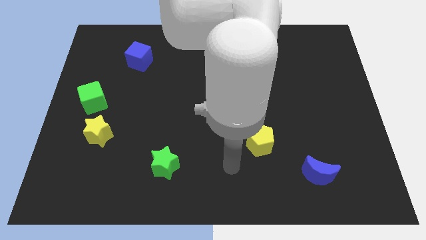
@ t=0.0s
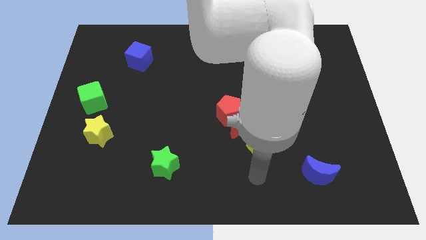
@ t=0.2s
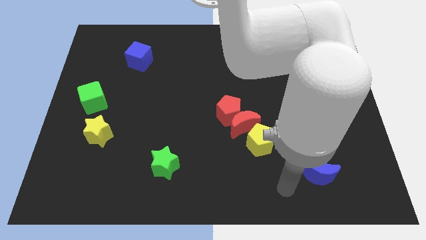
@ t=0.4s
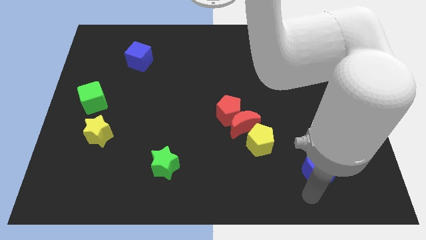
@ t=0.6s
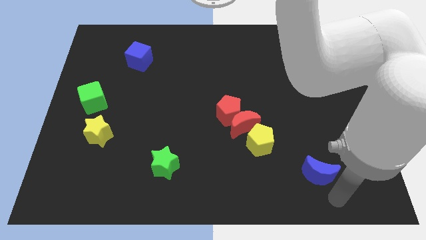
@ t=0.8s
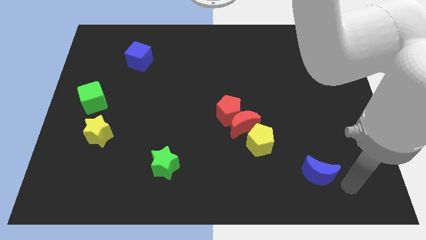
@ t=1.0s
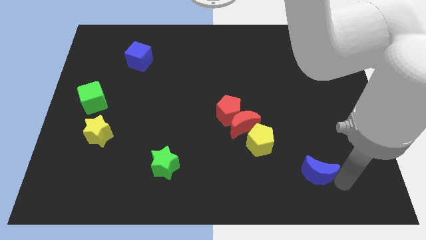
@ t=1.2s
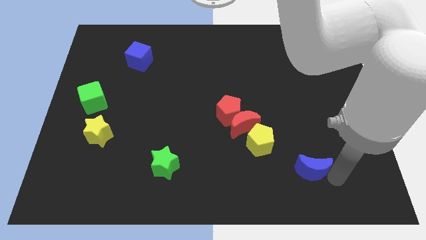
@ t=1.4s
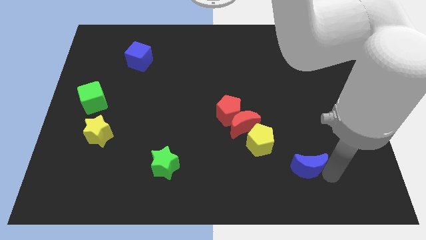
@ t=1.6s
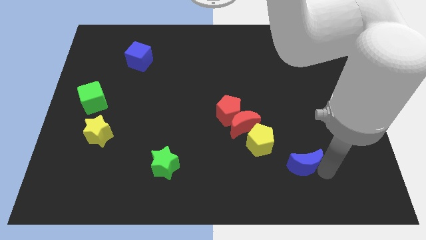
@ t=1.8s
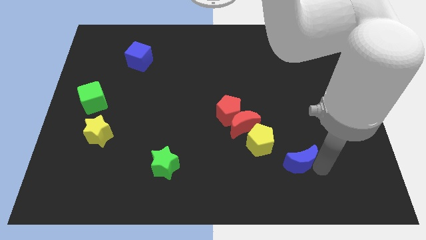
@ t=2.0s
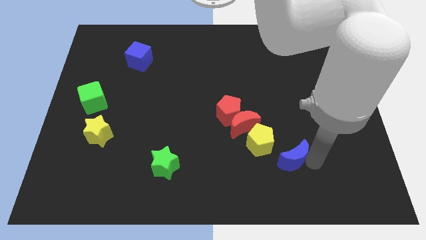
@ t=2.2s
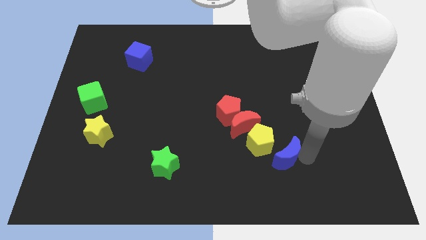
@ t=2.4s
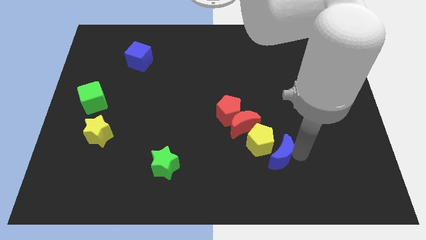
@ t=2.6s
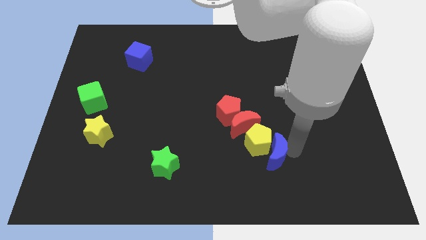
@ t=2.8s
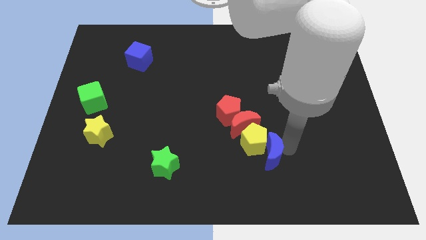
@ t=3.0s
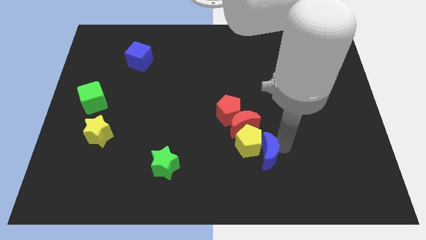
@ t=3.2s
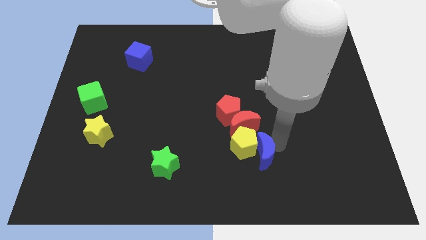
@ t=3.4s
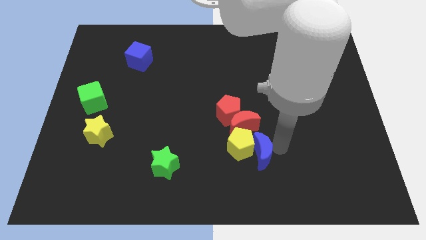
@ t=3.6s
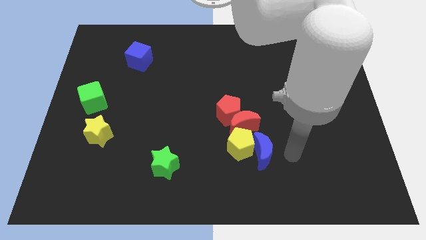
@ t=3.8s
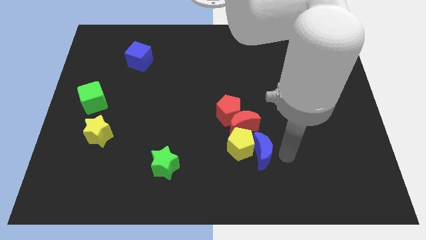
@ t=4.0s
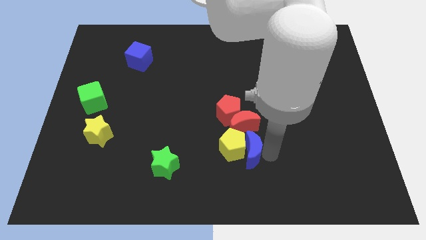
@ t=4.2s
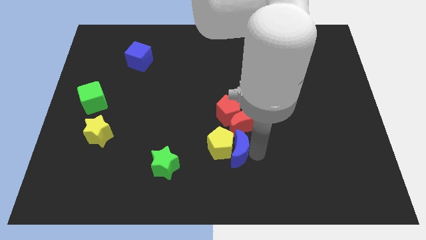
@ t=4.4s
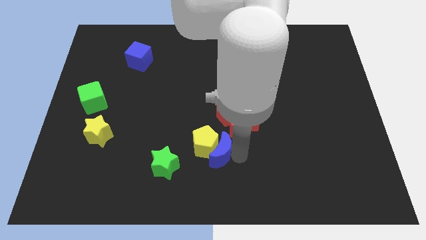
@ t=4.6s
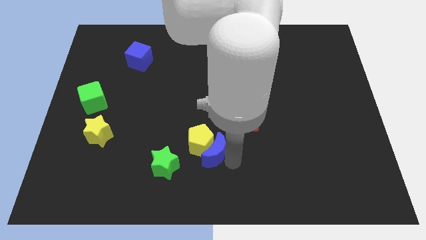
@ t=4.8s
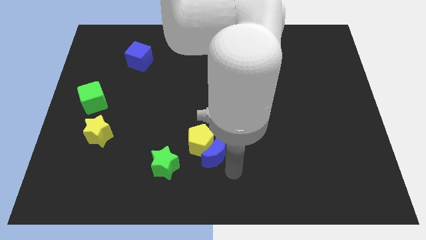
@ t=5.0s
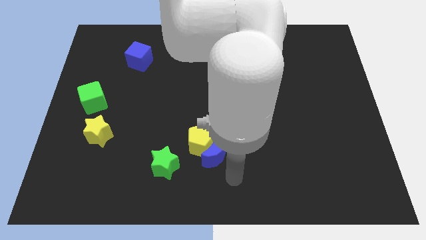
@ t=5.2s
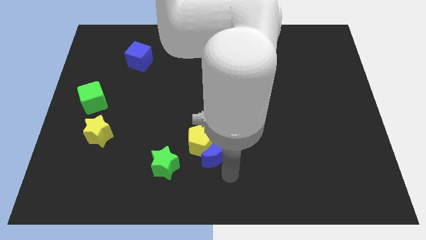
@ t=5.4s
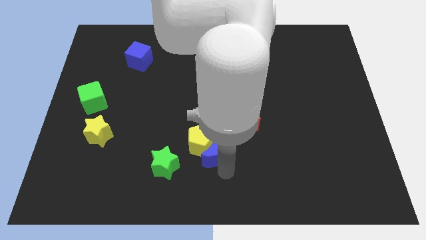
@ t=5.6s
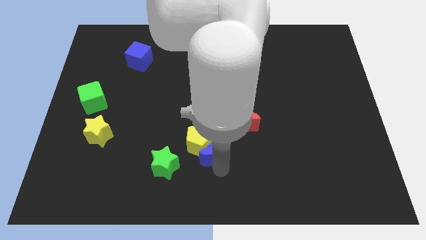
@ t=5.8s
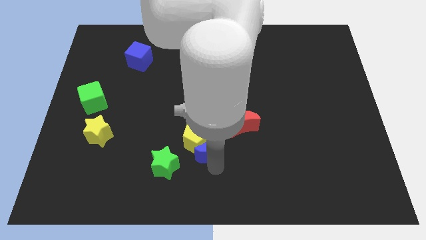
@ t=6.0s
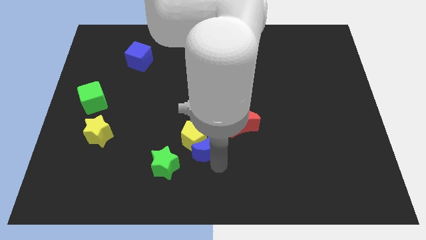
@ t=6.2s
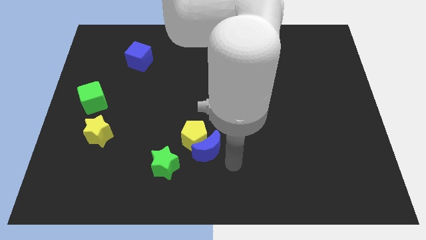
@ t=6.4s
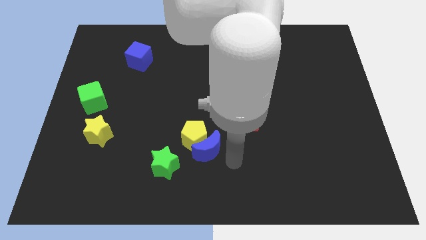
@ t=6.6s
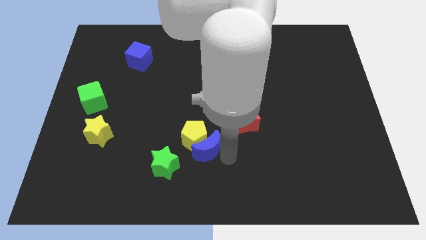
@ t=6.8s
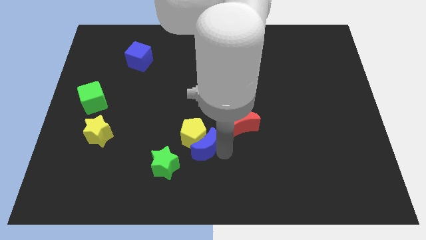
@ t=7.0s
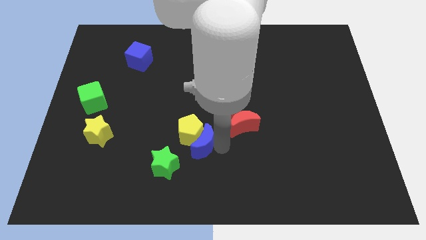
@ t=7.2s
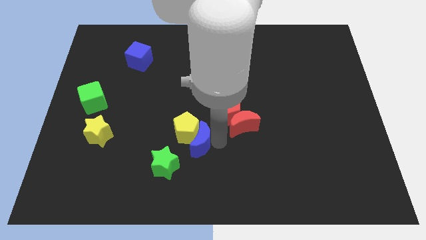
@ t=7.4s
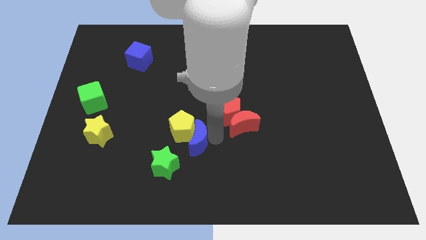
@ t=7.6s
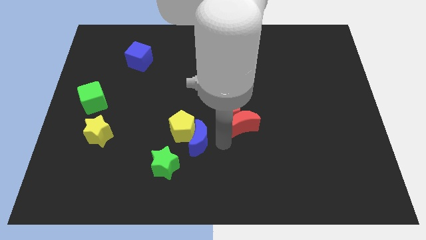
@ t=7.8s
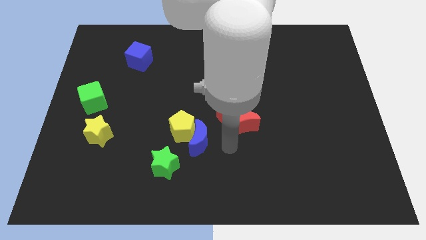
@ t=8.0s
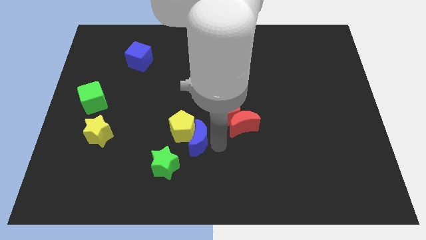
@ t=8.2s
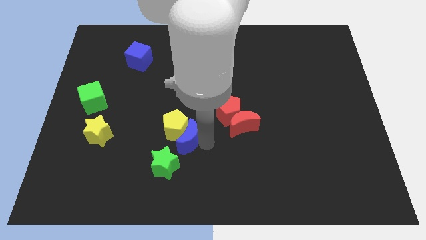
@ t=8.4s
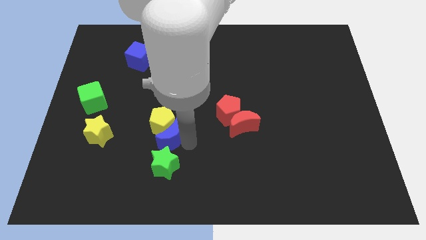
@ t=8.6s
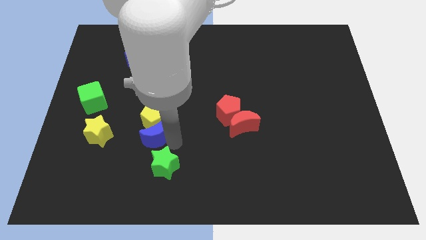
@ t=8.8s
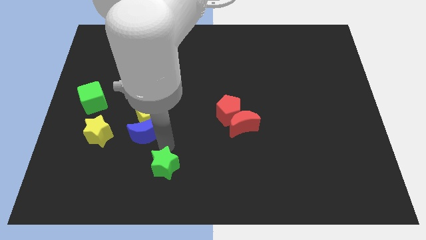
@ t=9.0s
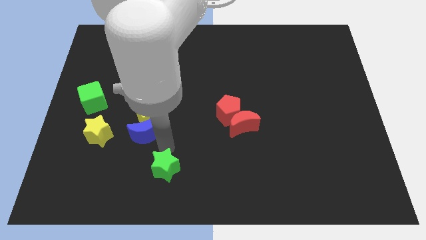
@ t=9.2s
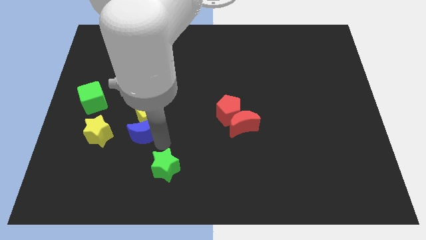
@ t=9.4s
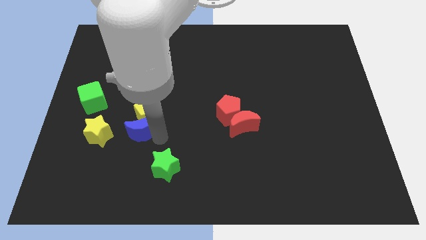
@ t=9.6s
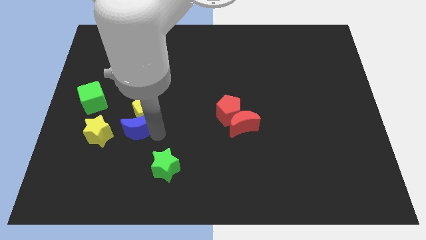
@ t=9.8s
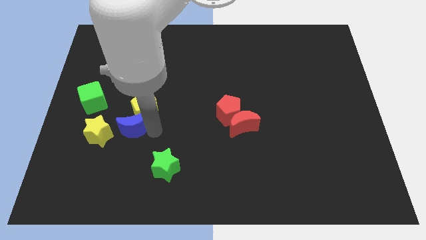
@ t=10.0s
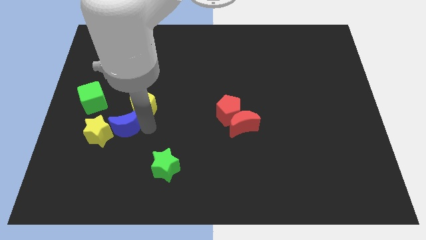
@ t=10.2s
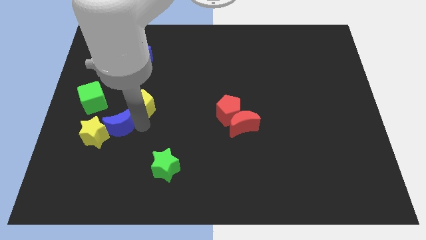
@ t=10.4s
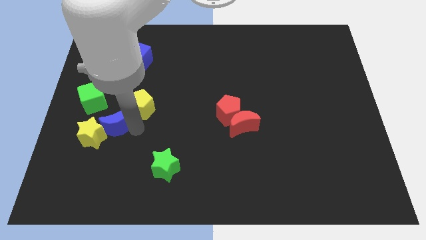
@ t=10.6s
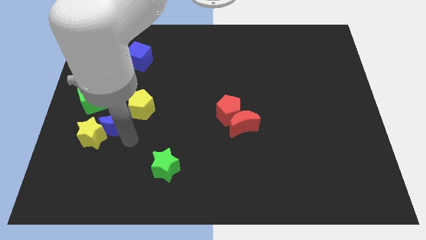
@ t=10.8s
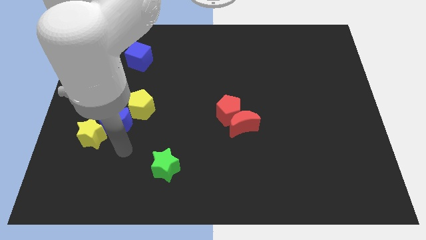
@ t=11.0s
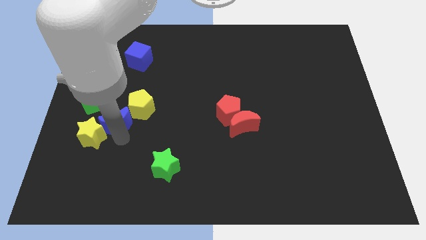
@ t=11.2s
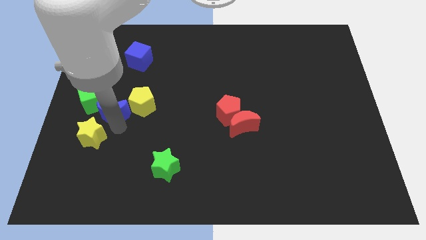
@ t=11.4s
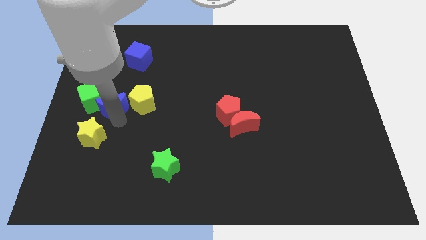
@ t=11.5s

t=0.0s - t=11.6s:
slide the blue moon towards the green cube

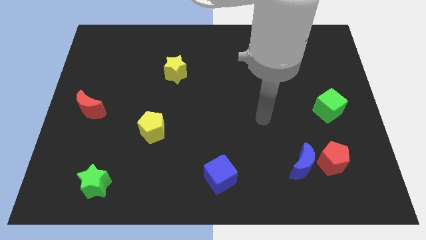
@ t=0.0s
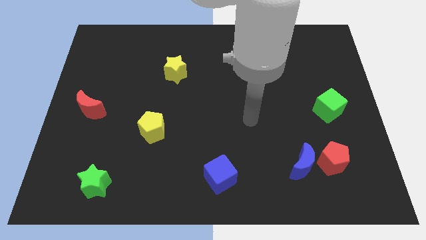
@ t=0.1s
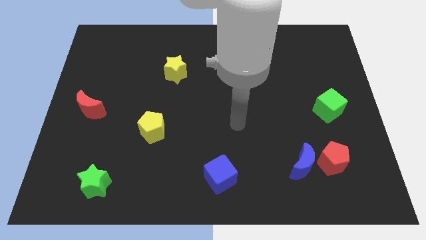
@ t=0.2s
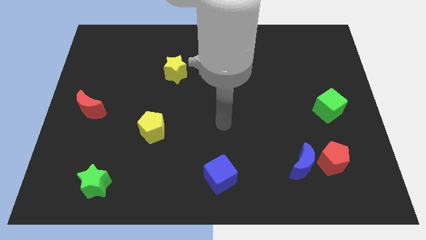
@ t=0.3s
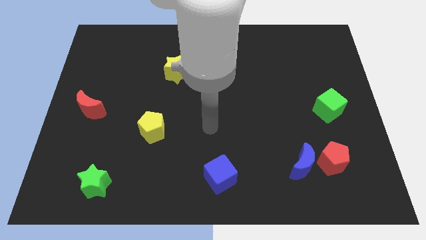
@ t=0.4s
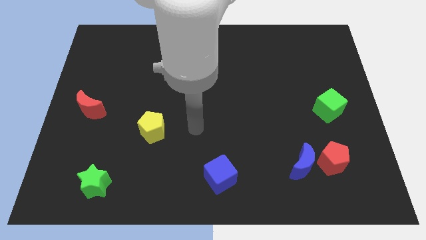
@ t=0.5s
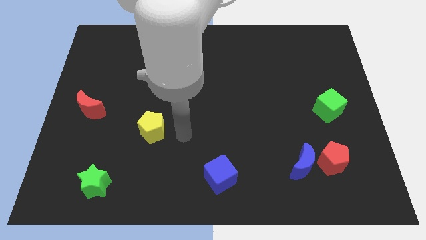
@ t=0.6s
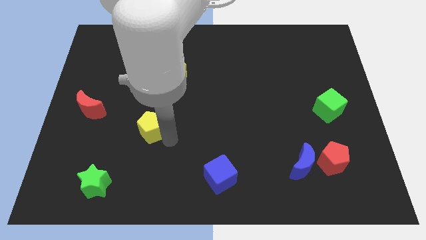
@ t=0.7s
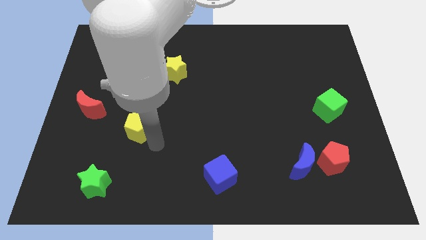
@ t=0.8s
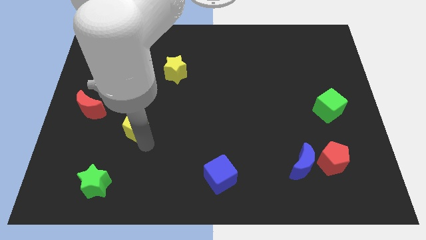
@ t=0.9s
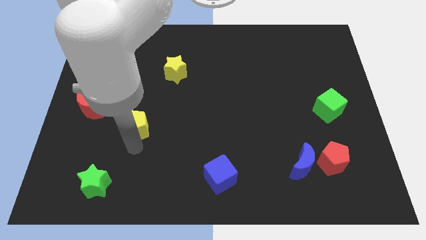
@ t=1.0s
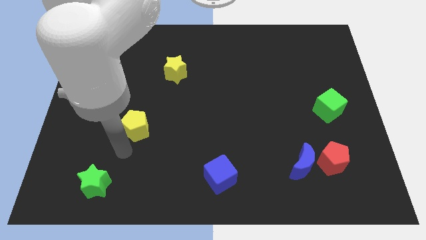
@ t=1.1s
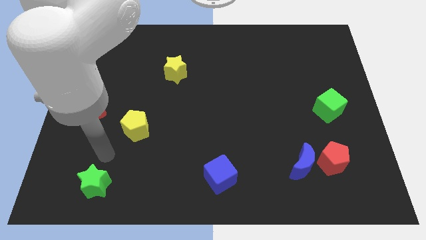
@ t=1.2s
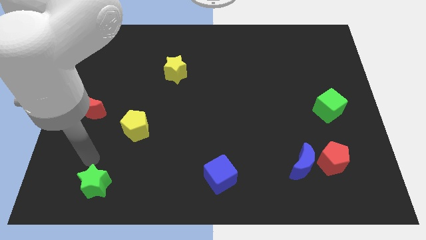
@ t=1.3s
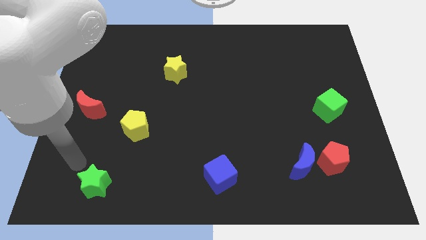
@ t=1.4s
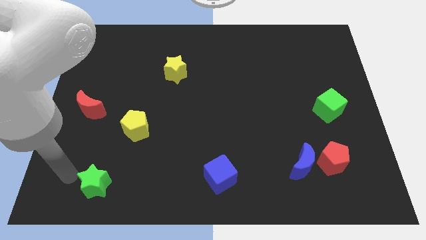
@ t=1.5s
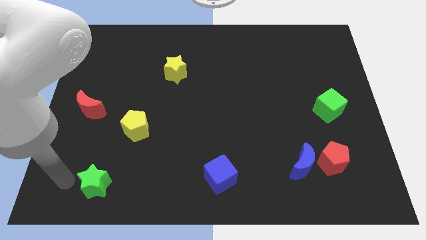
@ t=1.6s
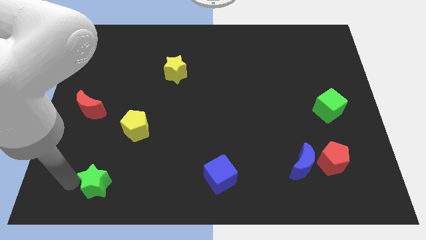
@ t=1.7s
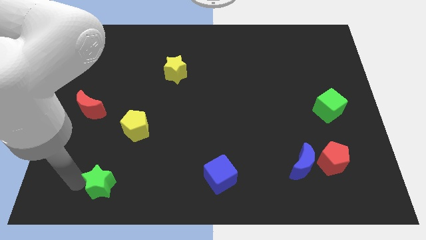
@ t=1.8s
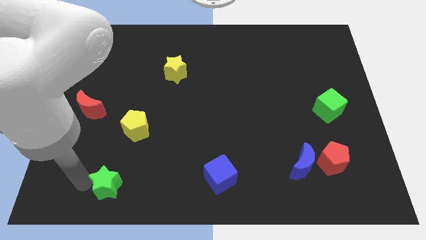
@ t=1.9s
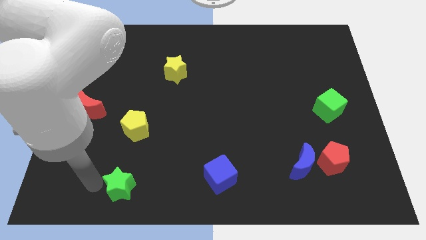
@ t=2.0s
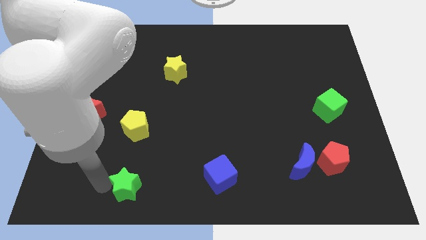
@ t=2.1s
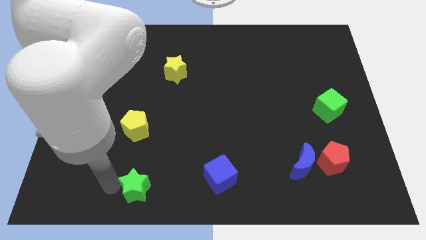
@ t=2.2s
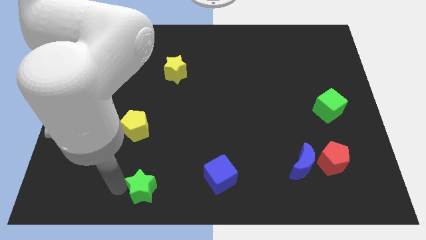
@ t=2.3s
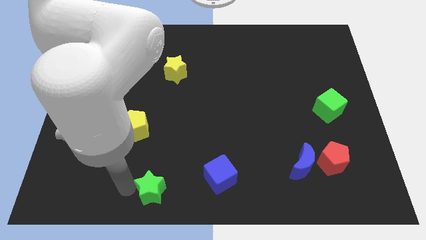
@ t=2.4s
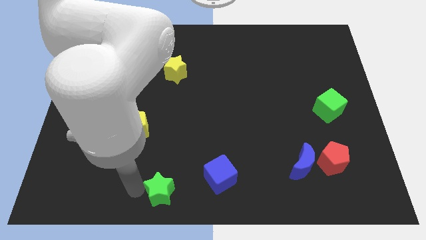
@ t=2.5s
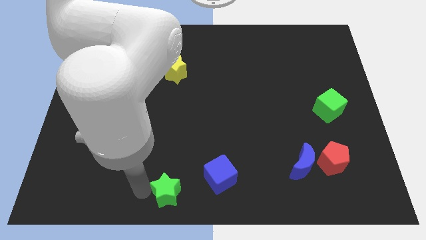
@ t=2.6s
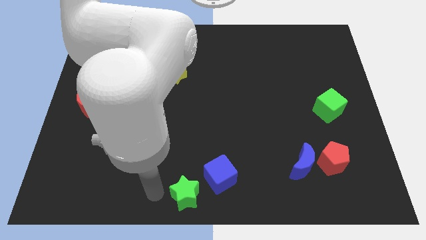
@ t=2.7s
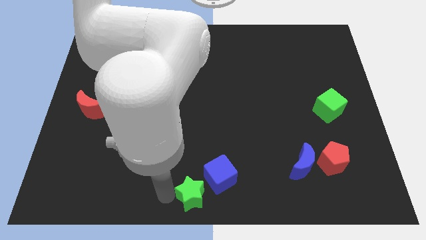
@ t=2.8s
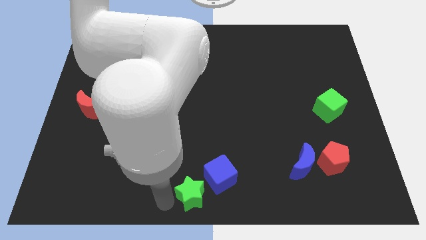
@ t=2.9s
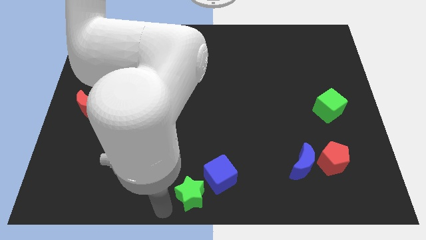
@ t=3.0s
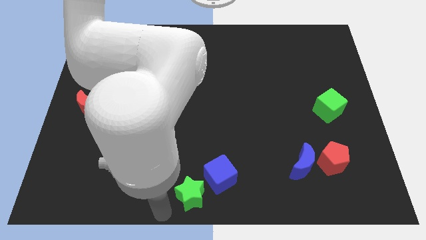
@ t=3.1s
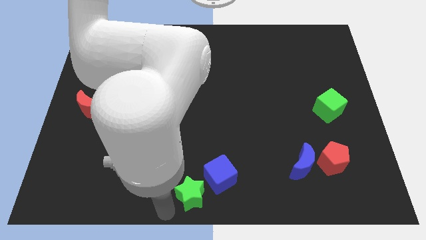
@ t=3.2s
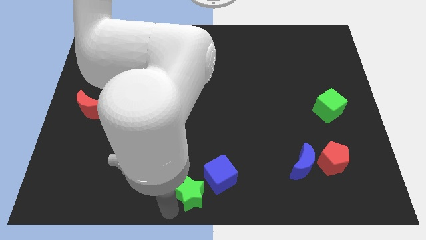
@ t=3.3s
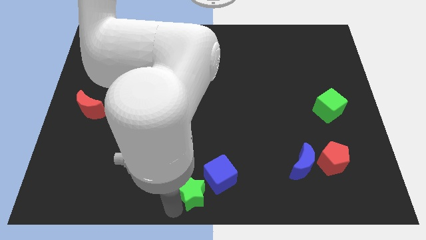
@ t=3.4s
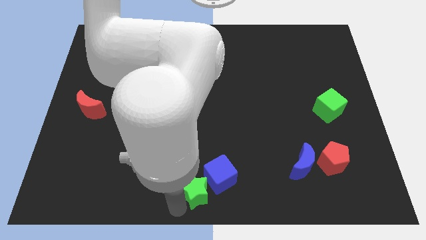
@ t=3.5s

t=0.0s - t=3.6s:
put the green star next to the blue cube
